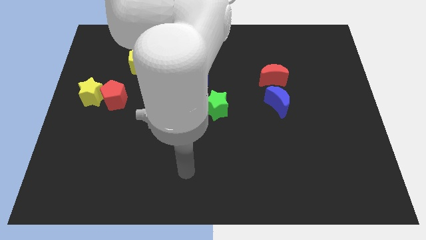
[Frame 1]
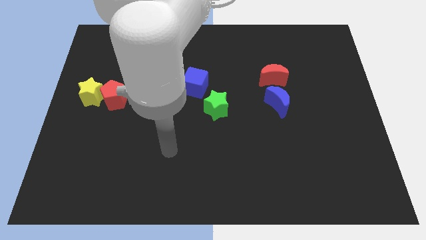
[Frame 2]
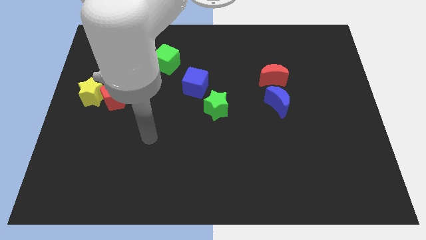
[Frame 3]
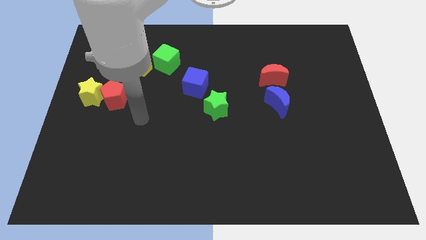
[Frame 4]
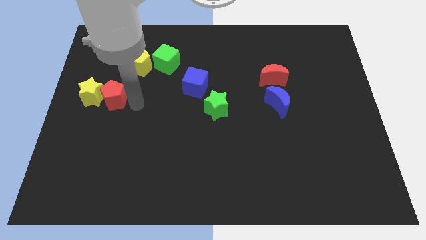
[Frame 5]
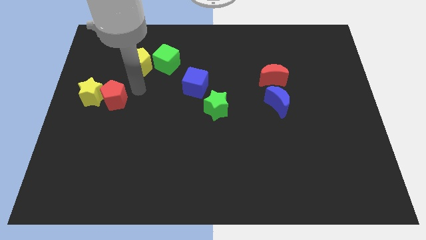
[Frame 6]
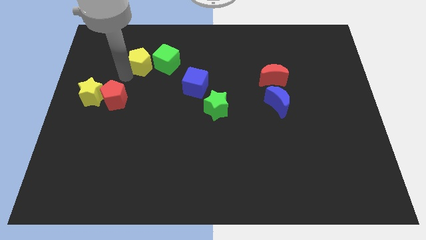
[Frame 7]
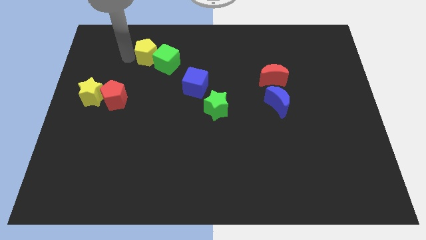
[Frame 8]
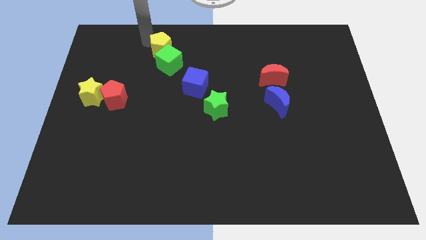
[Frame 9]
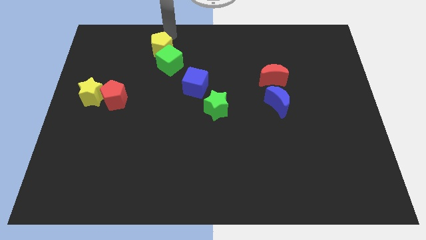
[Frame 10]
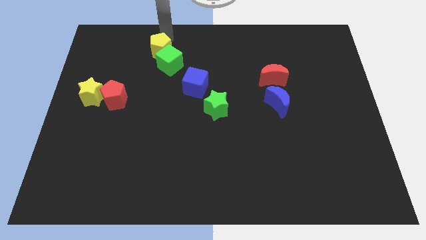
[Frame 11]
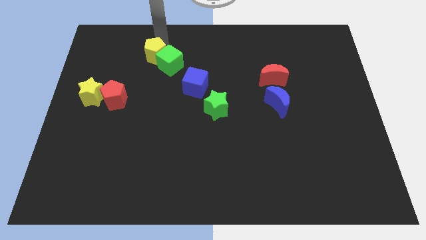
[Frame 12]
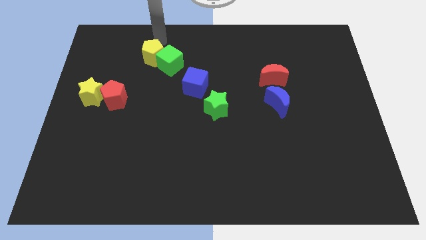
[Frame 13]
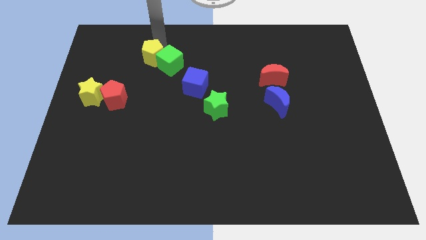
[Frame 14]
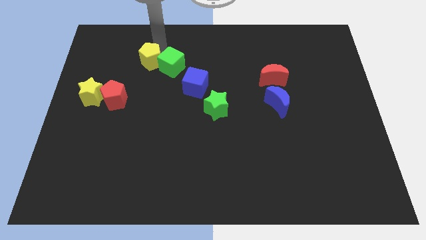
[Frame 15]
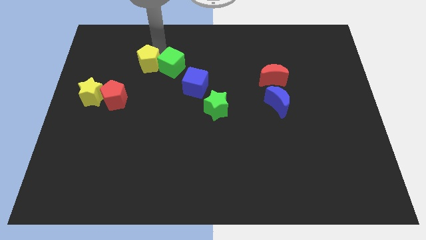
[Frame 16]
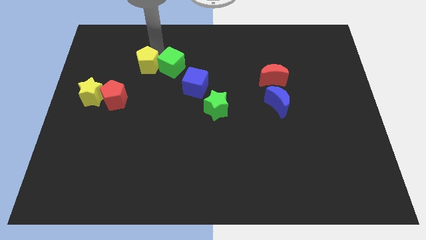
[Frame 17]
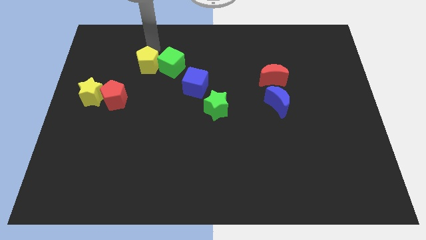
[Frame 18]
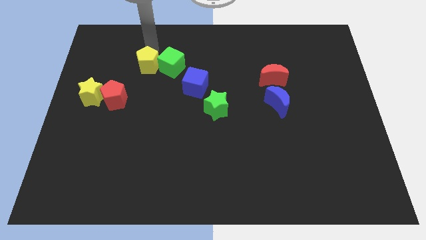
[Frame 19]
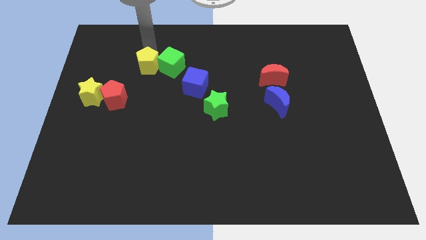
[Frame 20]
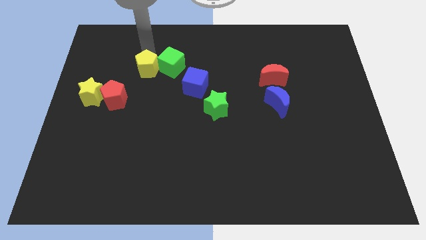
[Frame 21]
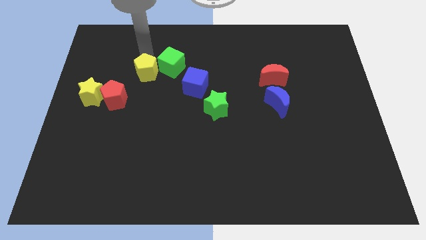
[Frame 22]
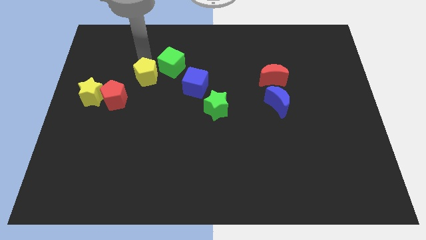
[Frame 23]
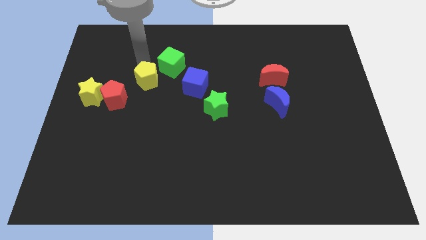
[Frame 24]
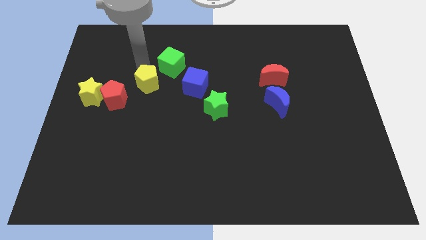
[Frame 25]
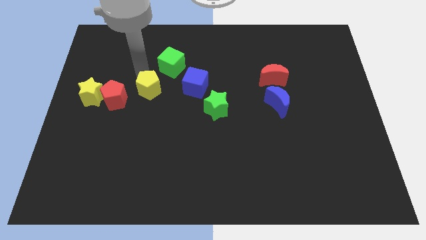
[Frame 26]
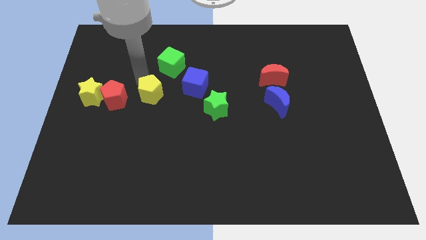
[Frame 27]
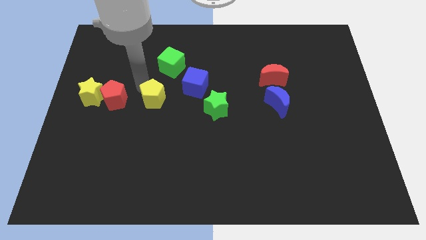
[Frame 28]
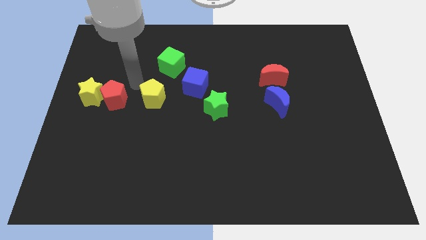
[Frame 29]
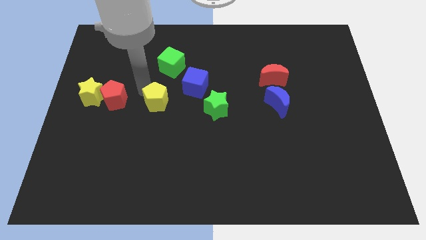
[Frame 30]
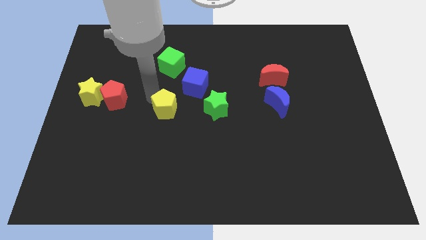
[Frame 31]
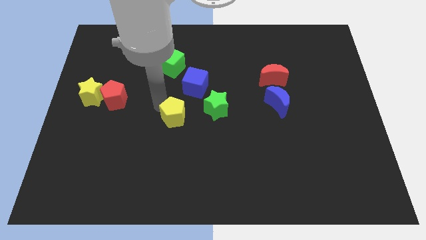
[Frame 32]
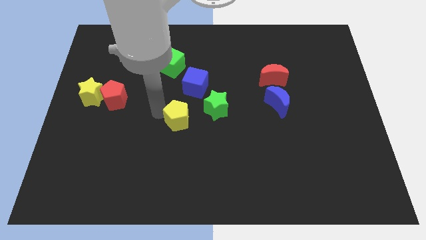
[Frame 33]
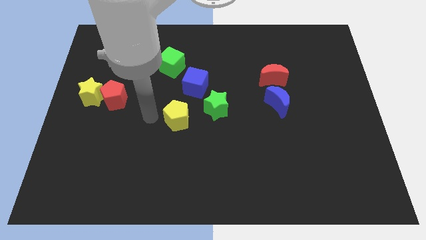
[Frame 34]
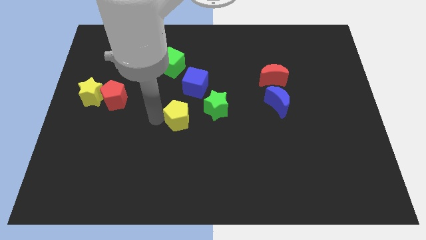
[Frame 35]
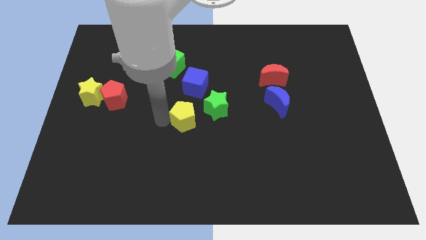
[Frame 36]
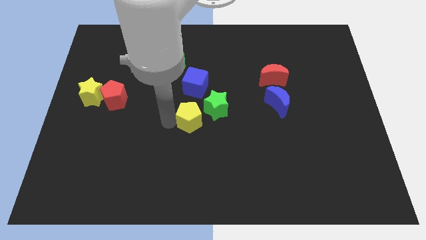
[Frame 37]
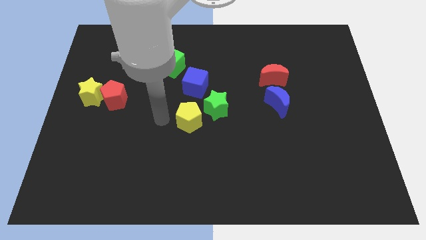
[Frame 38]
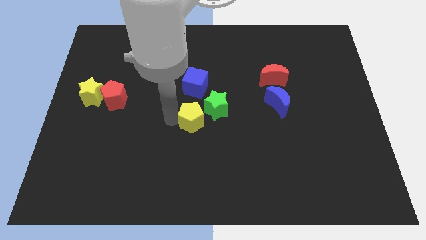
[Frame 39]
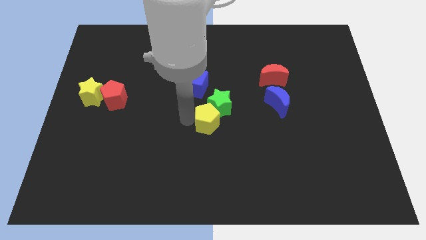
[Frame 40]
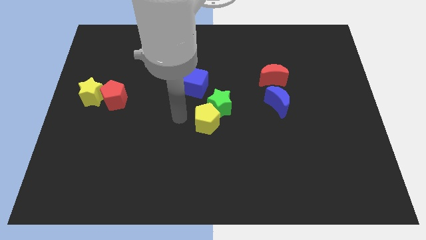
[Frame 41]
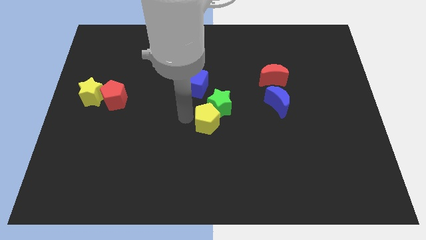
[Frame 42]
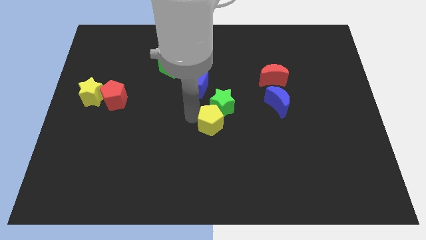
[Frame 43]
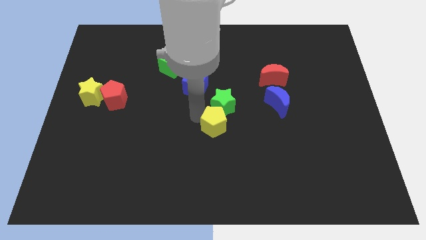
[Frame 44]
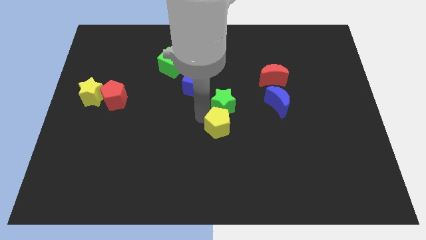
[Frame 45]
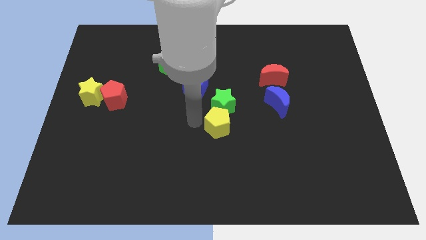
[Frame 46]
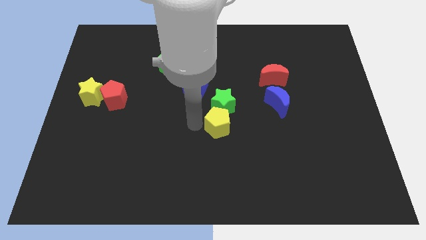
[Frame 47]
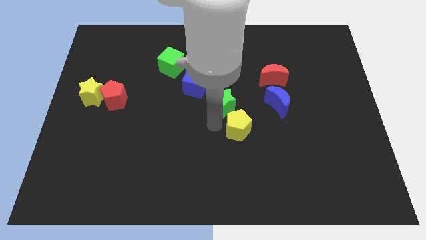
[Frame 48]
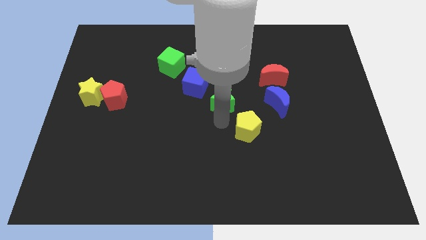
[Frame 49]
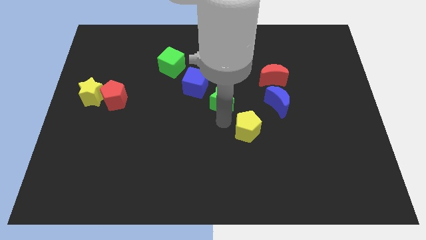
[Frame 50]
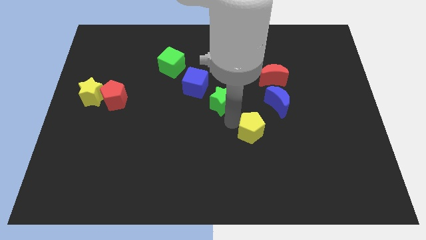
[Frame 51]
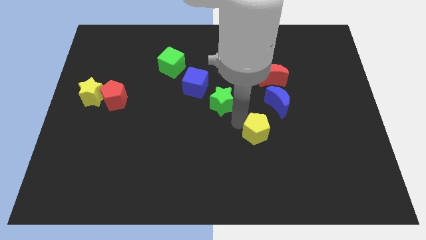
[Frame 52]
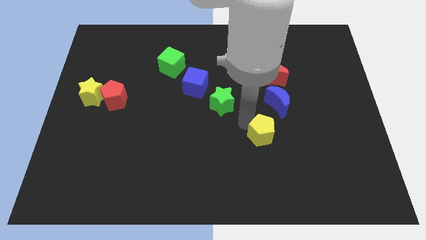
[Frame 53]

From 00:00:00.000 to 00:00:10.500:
move the yellow pentagon to the bottom side of the blue moon

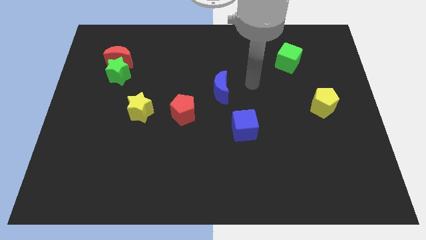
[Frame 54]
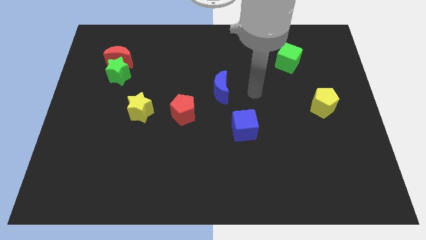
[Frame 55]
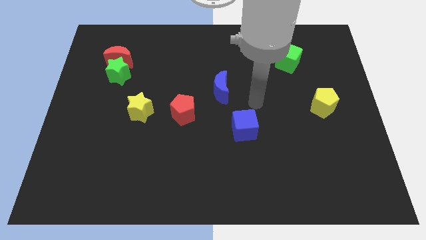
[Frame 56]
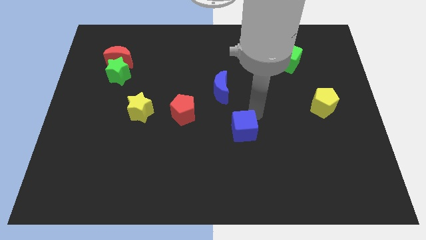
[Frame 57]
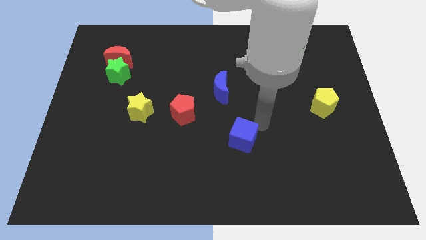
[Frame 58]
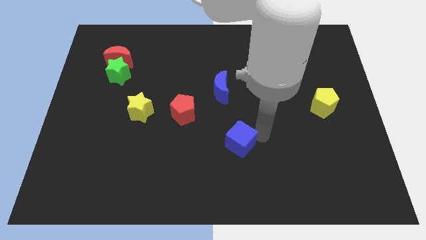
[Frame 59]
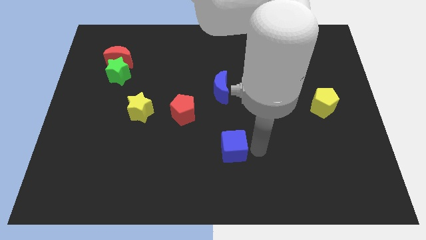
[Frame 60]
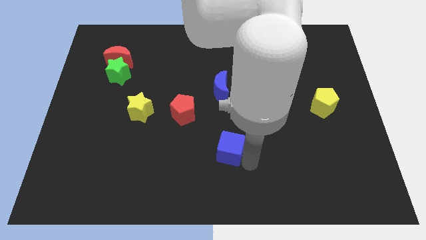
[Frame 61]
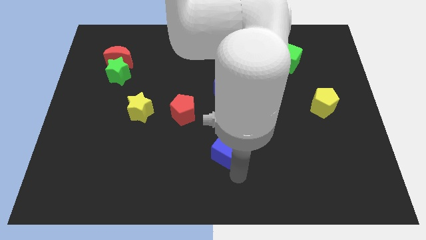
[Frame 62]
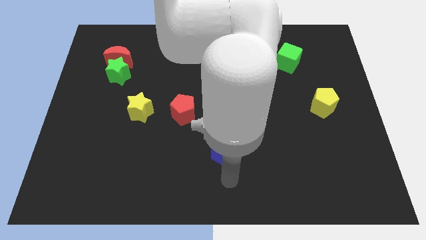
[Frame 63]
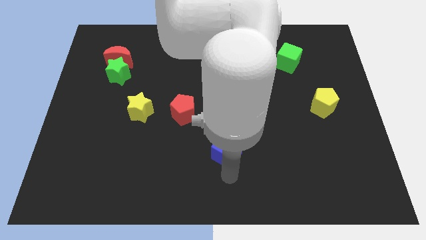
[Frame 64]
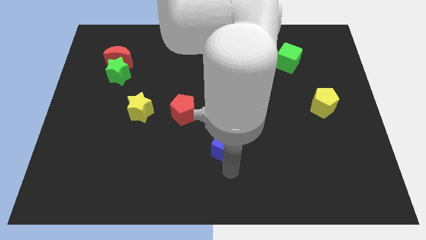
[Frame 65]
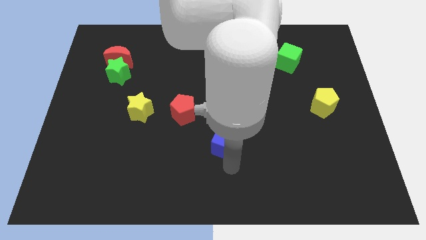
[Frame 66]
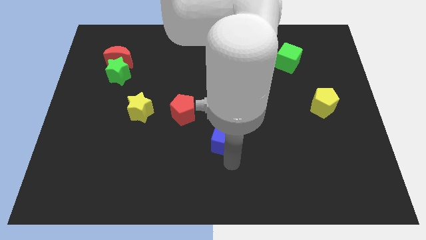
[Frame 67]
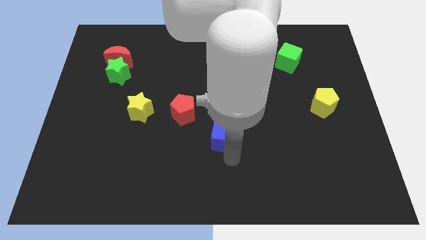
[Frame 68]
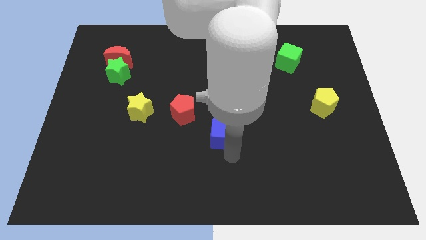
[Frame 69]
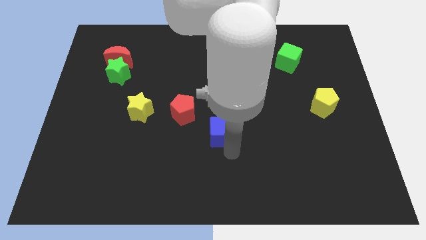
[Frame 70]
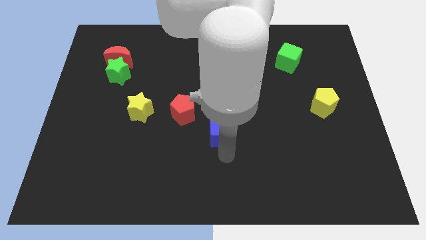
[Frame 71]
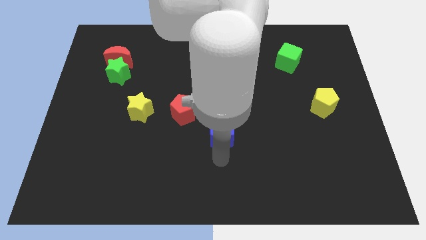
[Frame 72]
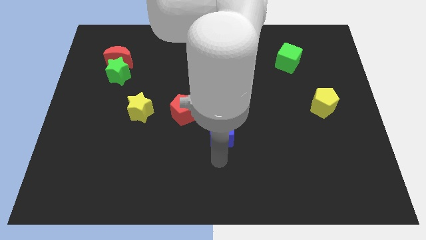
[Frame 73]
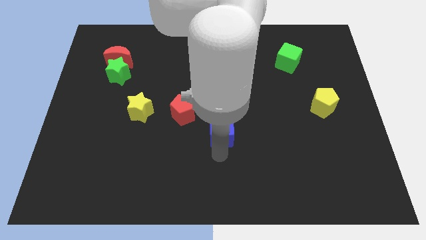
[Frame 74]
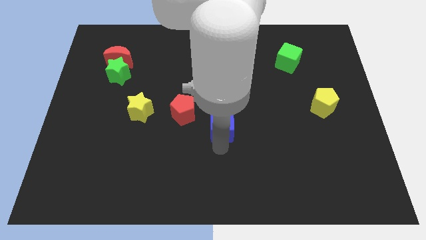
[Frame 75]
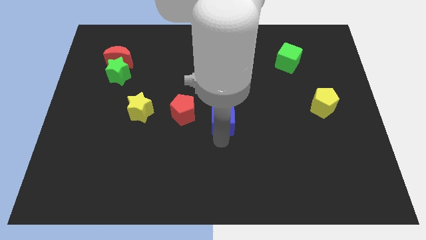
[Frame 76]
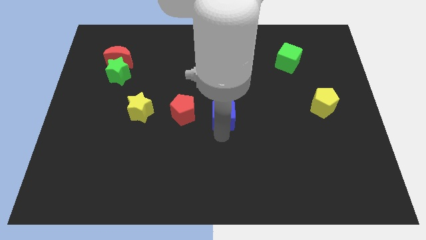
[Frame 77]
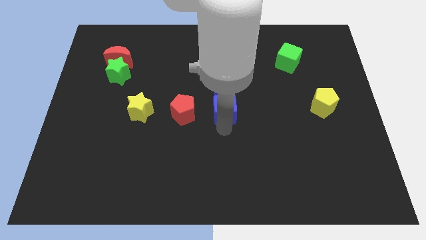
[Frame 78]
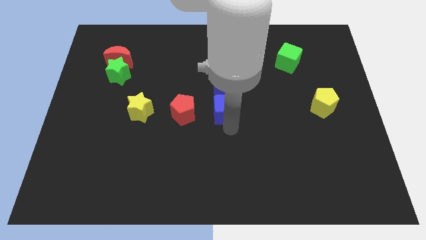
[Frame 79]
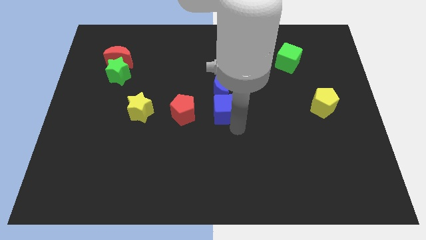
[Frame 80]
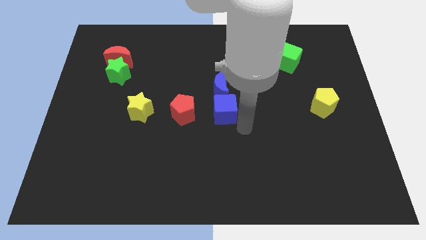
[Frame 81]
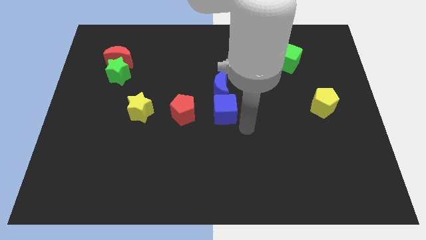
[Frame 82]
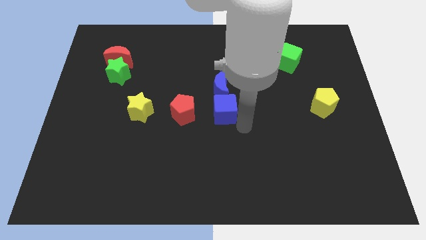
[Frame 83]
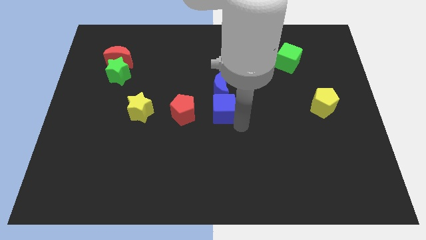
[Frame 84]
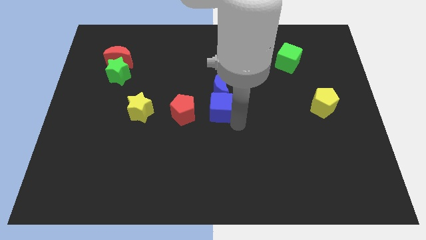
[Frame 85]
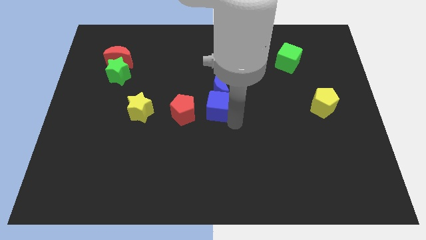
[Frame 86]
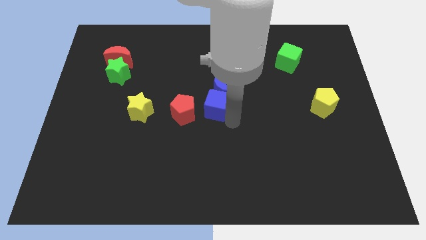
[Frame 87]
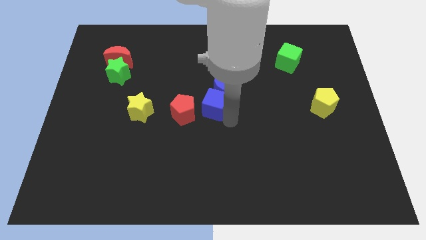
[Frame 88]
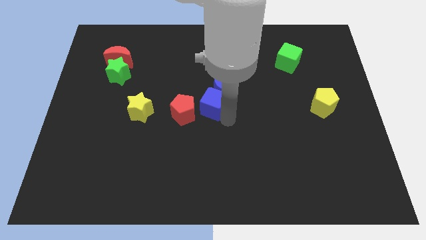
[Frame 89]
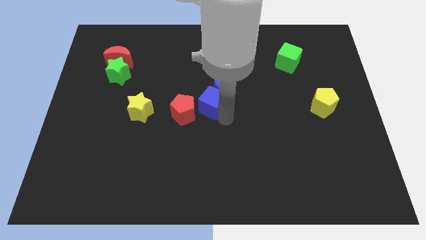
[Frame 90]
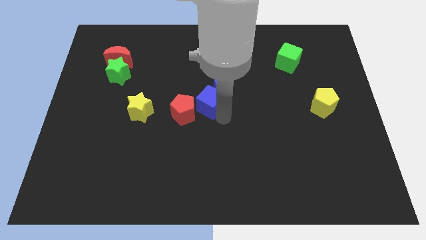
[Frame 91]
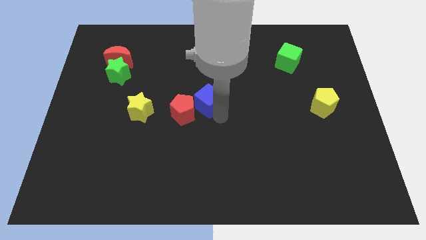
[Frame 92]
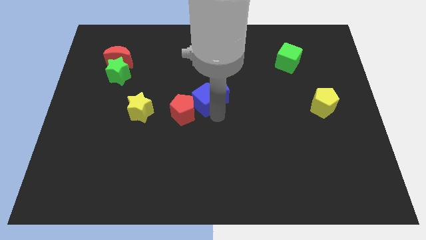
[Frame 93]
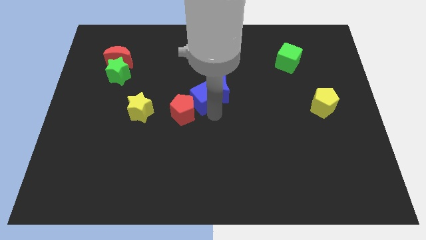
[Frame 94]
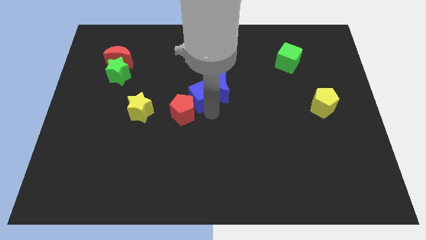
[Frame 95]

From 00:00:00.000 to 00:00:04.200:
push the blue cube to the top side of the red pentagon
